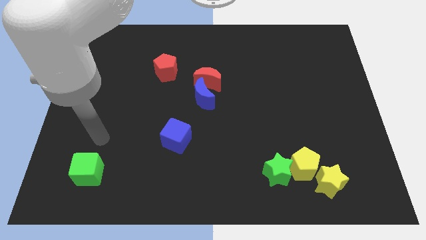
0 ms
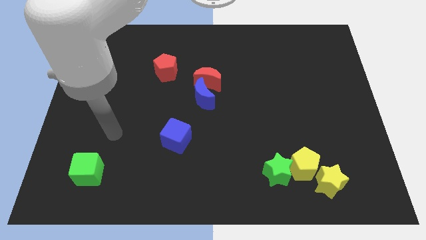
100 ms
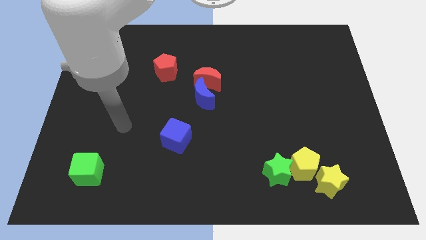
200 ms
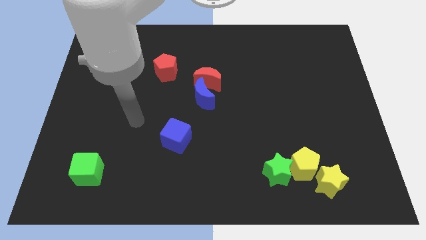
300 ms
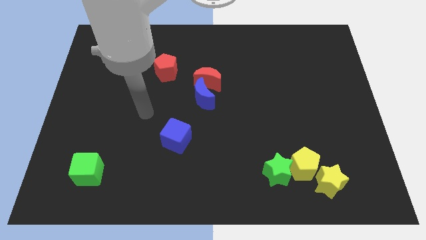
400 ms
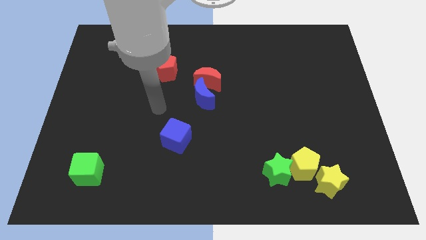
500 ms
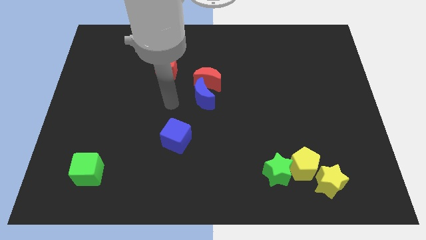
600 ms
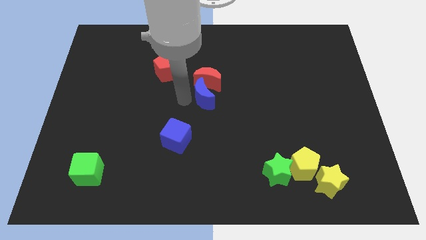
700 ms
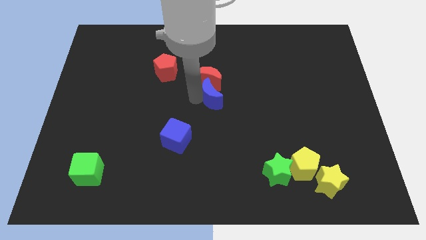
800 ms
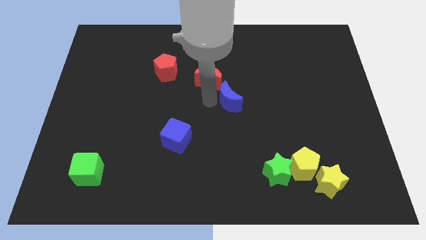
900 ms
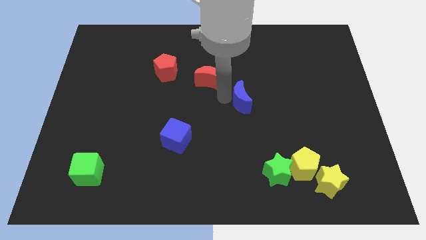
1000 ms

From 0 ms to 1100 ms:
pull the red moon apart from the blue moon

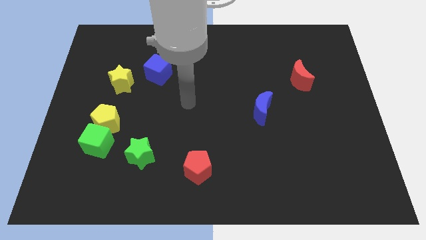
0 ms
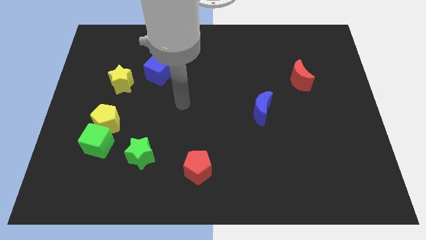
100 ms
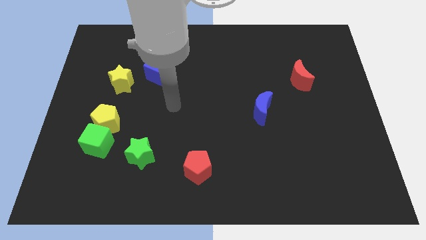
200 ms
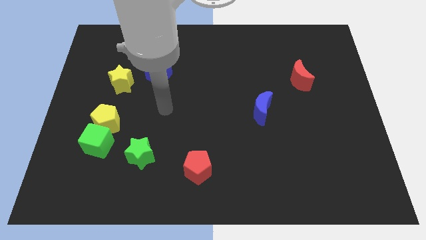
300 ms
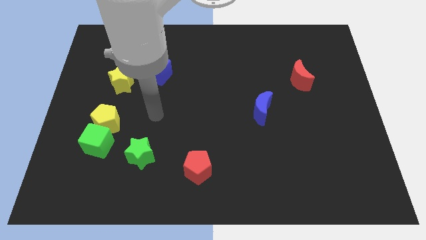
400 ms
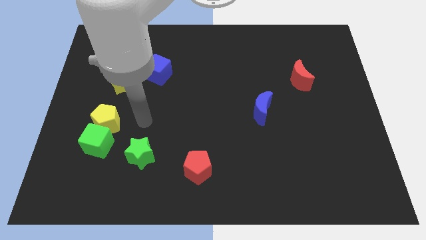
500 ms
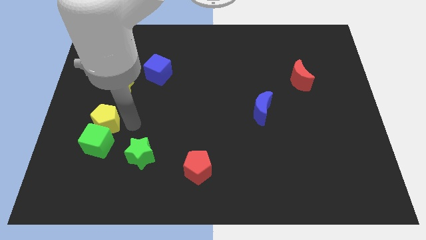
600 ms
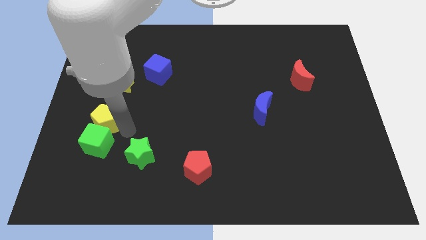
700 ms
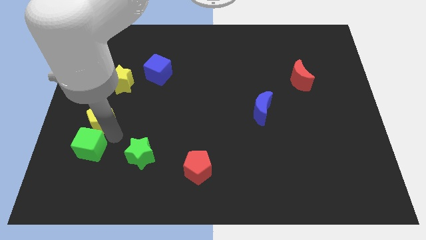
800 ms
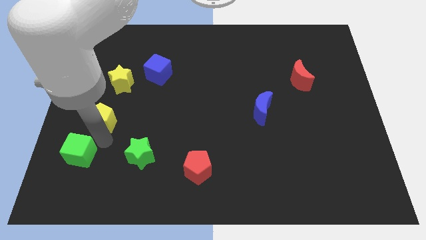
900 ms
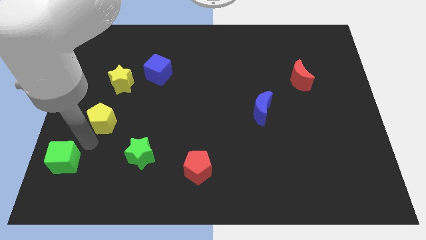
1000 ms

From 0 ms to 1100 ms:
move the yellow pentagon away from the green cube

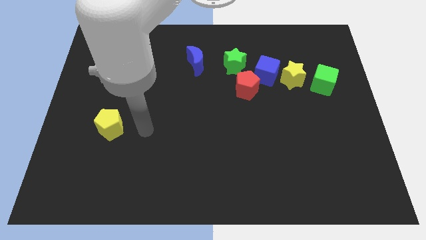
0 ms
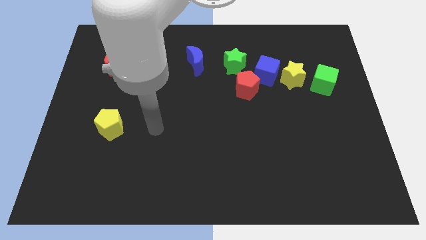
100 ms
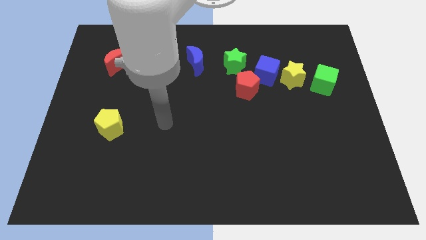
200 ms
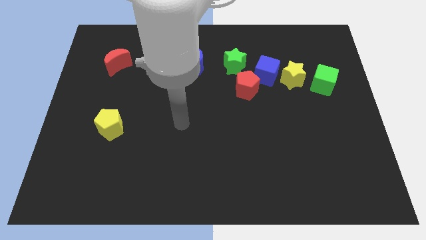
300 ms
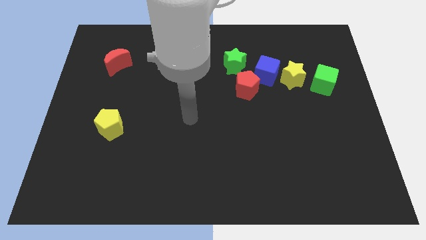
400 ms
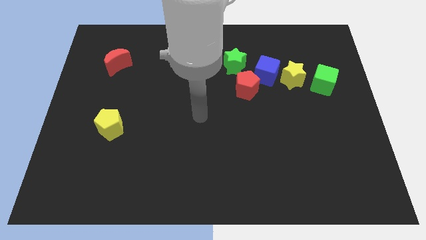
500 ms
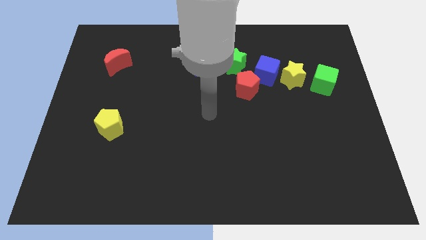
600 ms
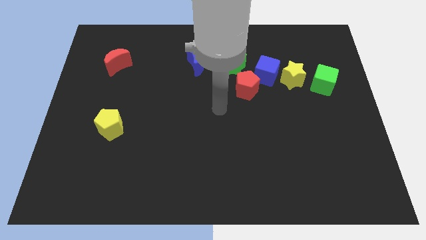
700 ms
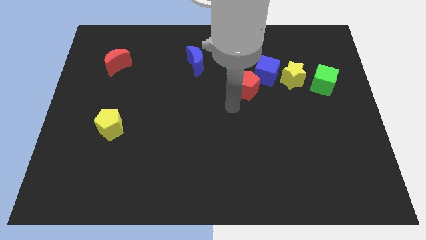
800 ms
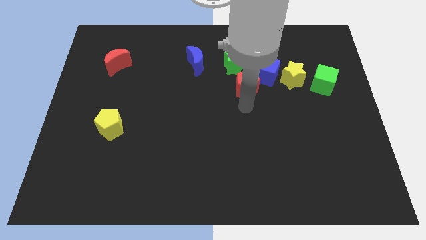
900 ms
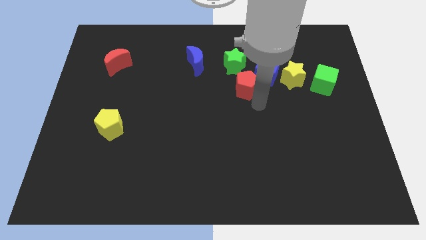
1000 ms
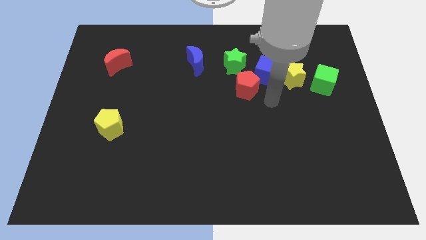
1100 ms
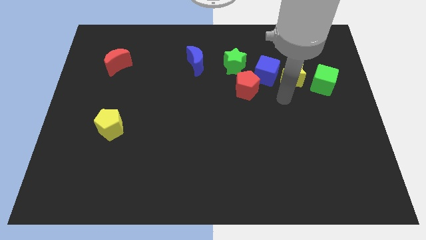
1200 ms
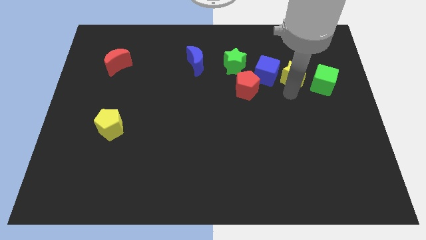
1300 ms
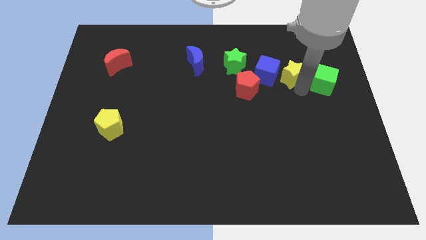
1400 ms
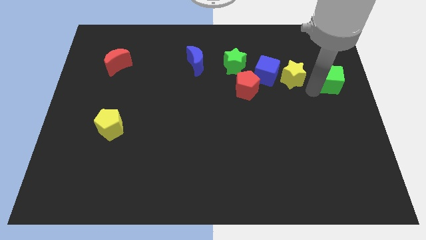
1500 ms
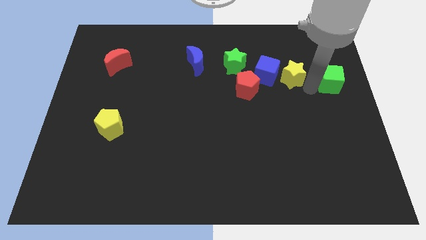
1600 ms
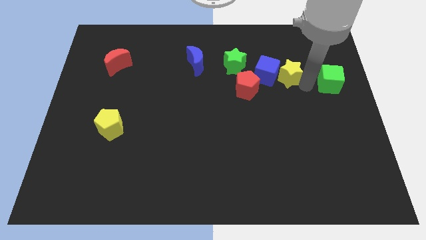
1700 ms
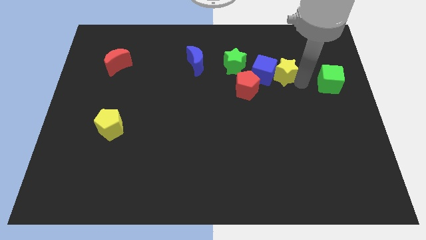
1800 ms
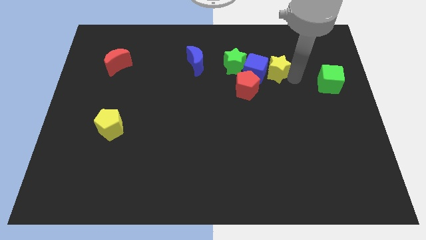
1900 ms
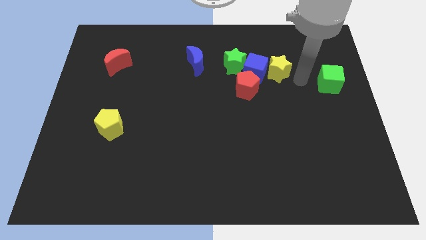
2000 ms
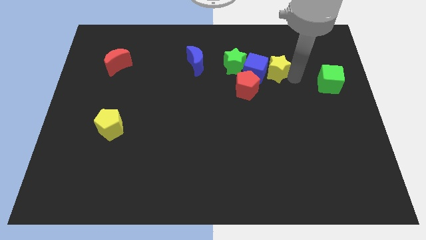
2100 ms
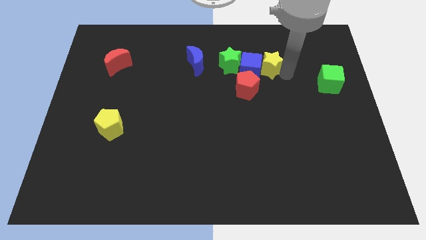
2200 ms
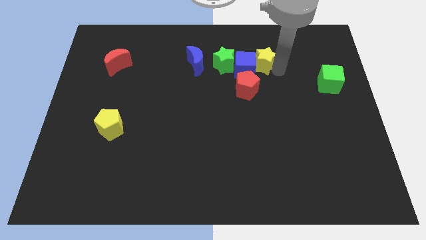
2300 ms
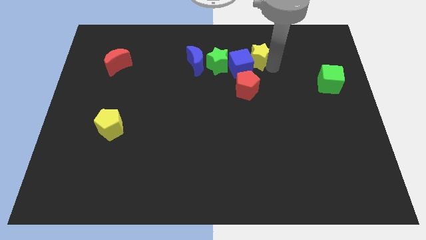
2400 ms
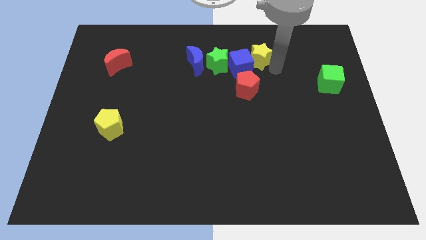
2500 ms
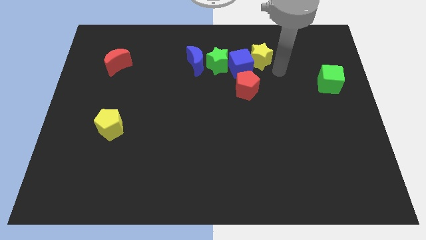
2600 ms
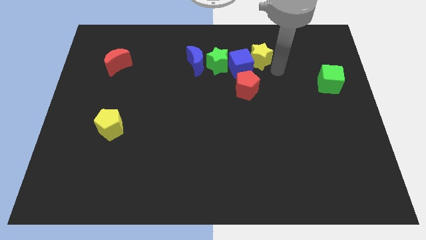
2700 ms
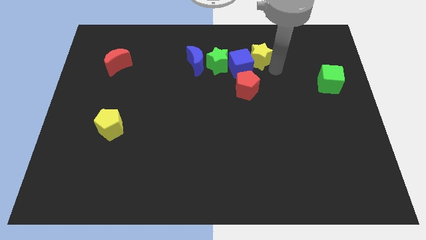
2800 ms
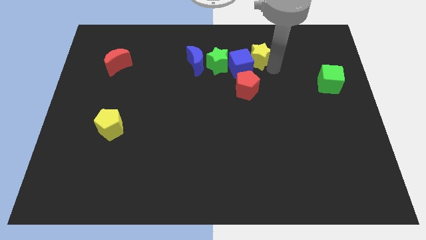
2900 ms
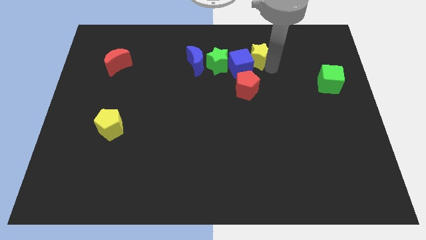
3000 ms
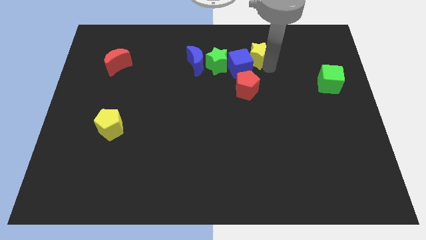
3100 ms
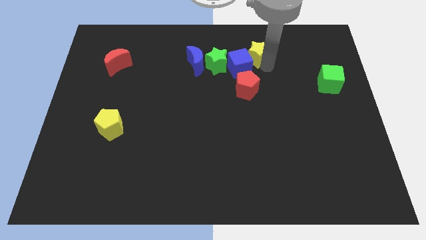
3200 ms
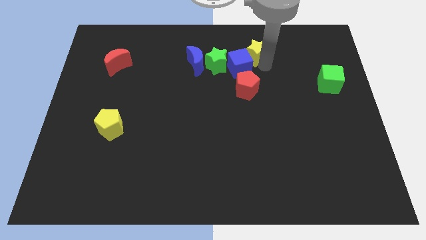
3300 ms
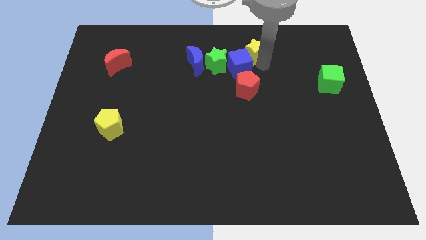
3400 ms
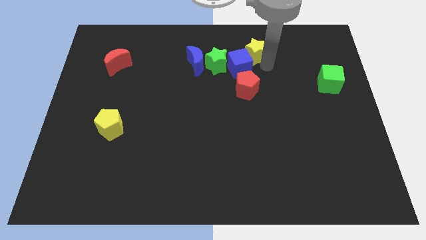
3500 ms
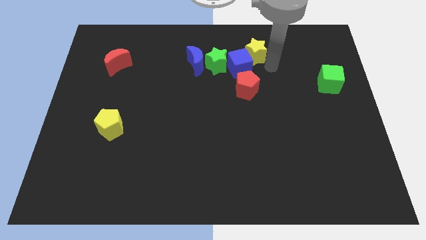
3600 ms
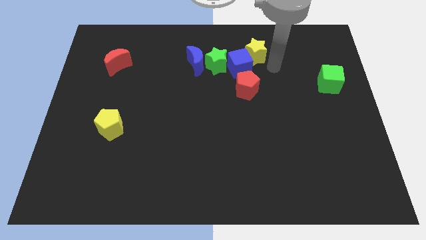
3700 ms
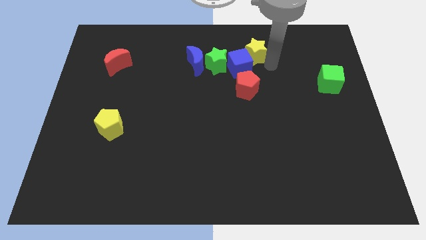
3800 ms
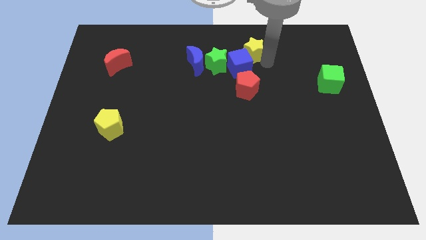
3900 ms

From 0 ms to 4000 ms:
pull the yellow star apart from the blue cube and green cube

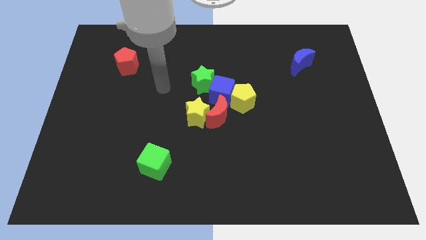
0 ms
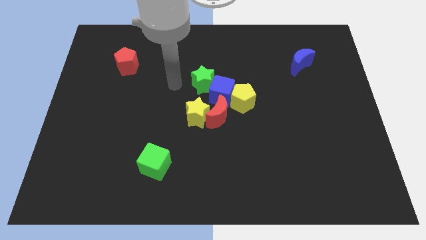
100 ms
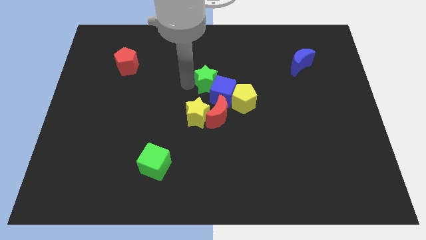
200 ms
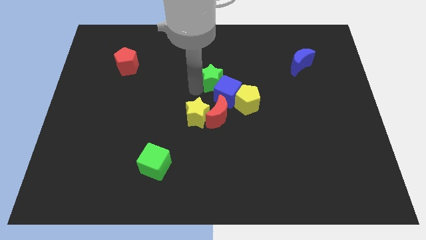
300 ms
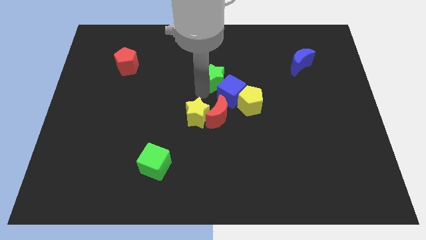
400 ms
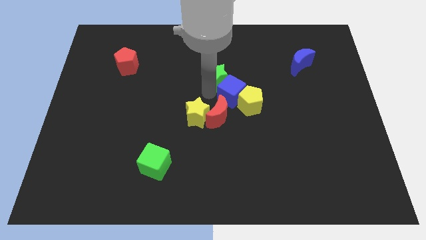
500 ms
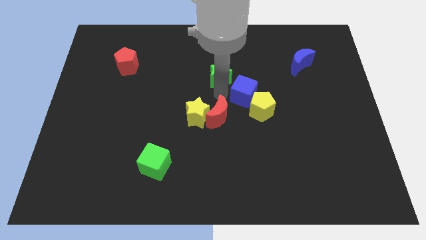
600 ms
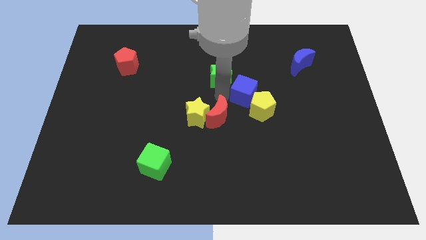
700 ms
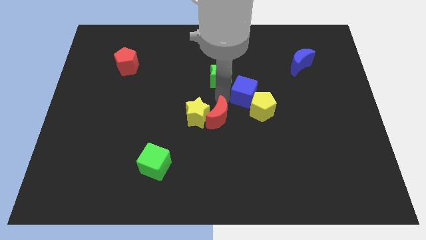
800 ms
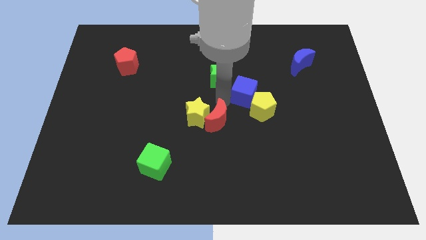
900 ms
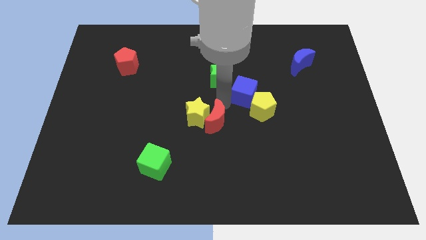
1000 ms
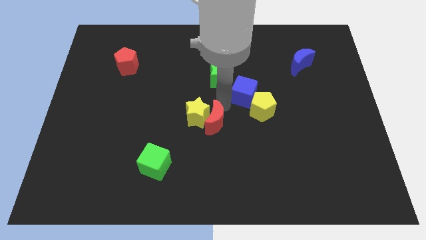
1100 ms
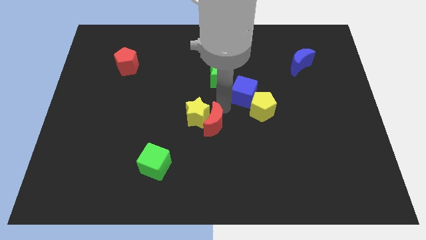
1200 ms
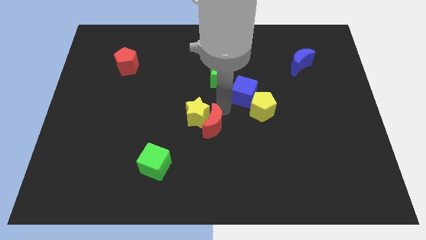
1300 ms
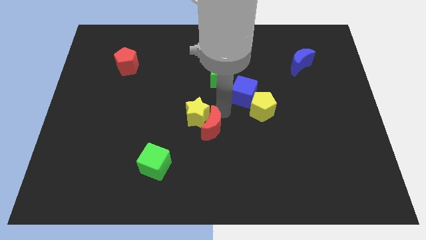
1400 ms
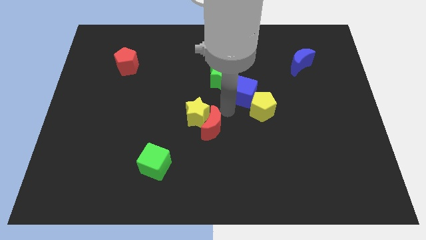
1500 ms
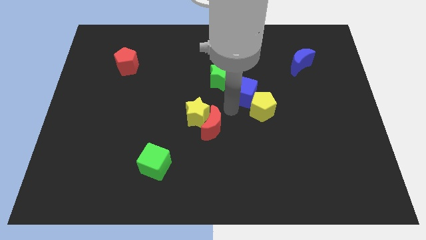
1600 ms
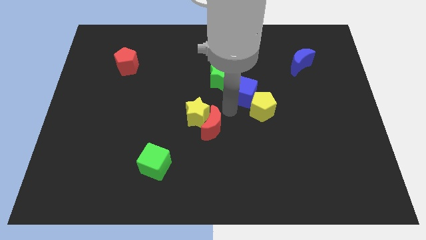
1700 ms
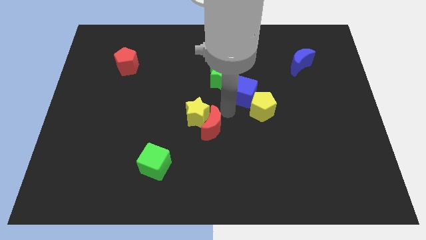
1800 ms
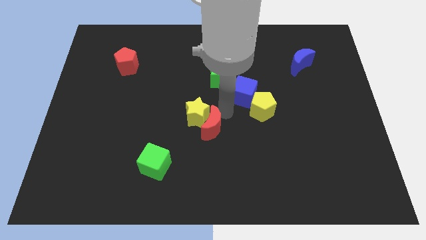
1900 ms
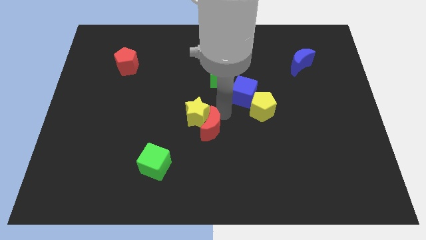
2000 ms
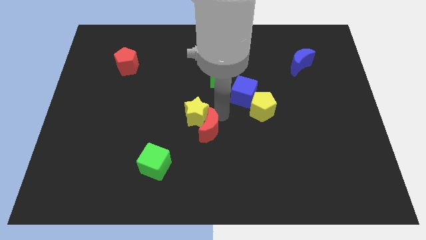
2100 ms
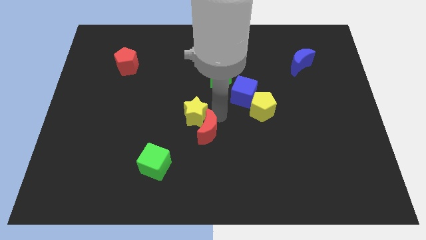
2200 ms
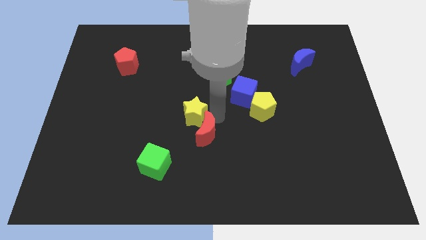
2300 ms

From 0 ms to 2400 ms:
move the red moon away from the yellow star, blue cube, and yellow pentagon

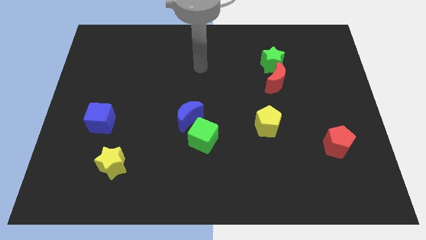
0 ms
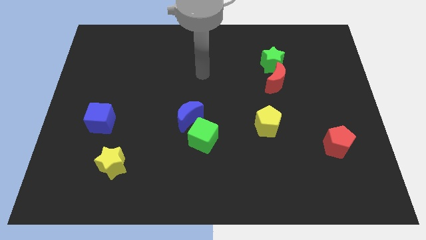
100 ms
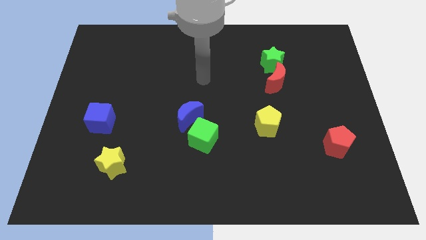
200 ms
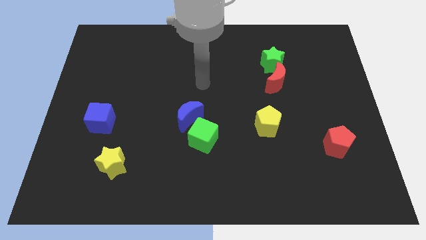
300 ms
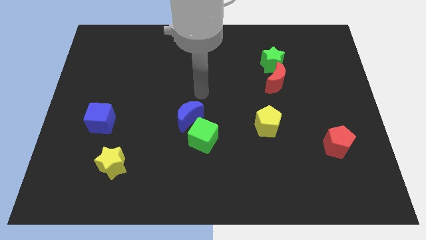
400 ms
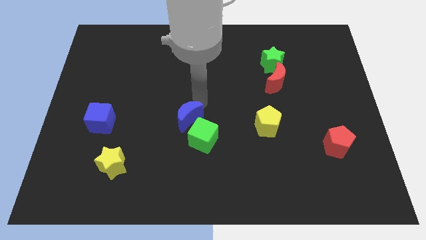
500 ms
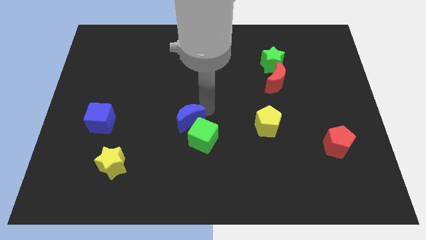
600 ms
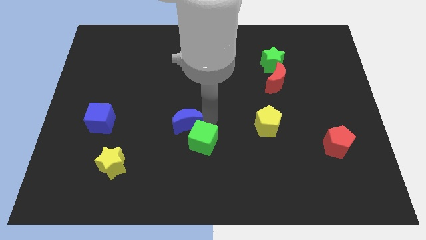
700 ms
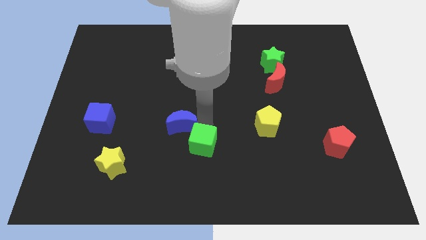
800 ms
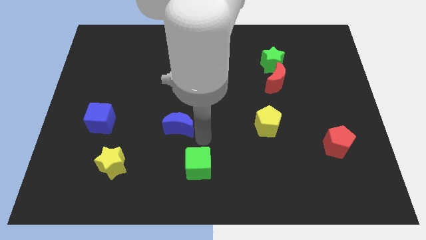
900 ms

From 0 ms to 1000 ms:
separate the blue moon from the green cube
